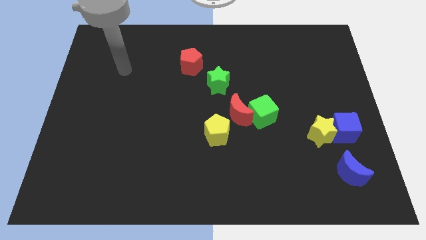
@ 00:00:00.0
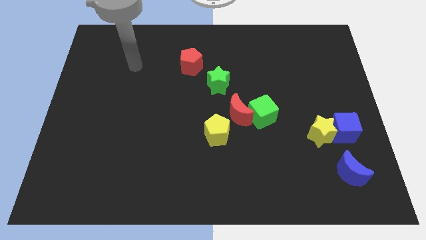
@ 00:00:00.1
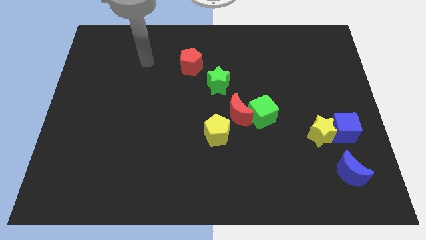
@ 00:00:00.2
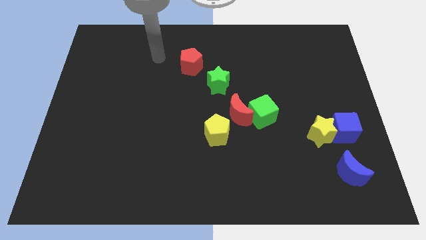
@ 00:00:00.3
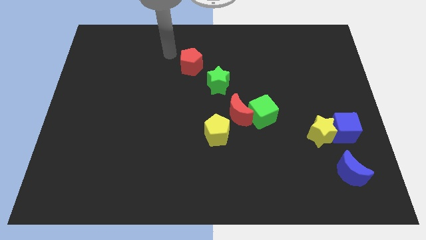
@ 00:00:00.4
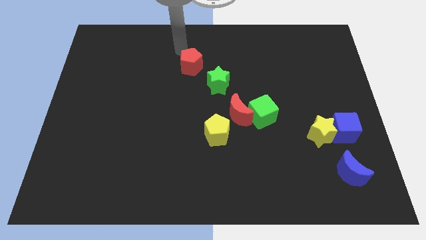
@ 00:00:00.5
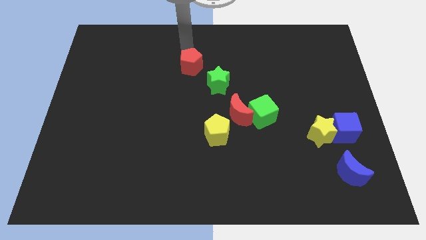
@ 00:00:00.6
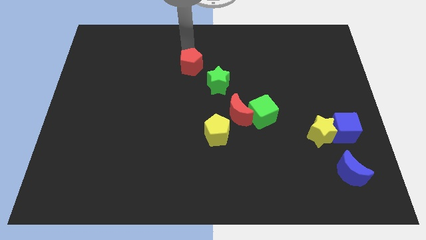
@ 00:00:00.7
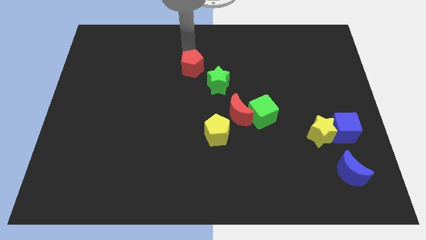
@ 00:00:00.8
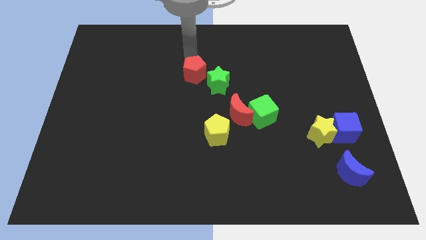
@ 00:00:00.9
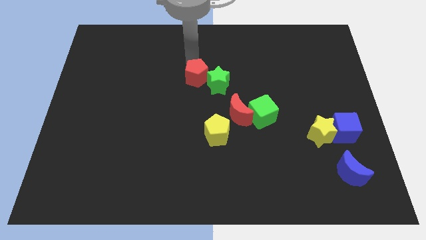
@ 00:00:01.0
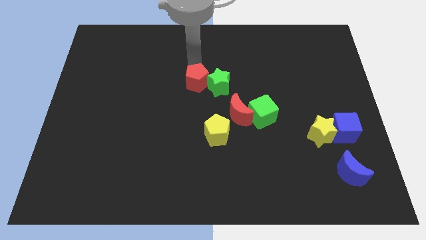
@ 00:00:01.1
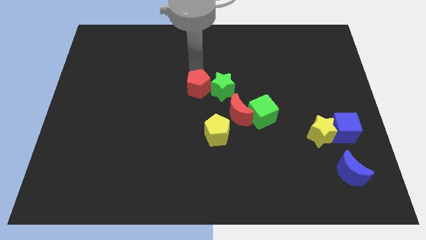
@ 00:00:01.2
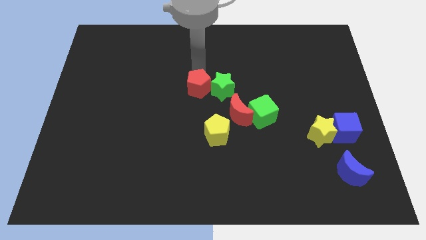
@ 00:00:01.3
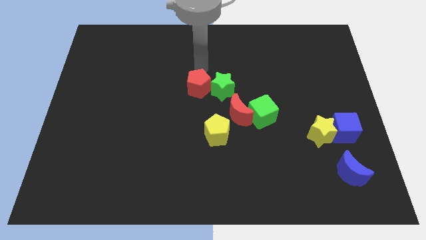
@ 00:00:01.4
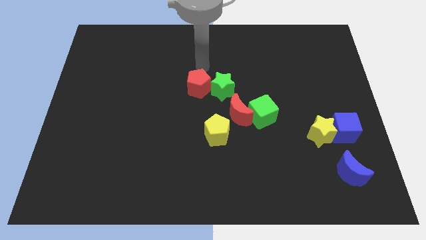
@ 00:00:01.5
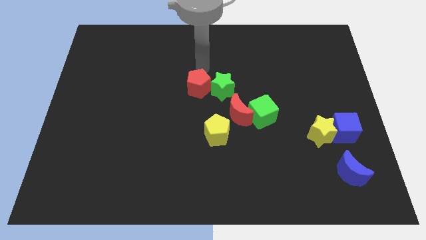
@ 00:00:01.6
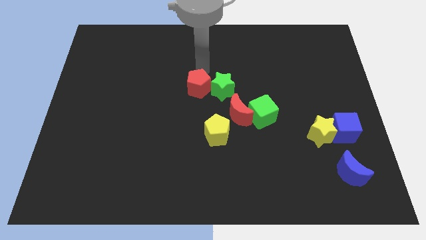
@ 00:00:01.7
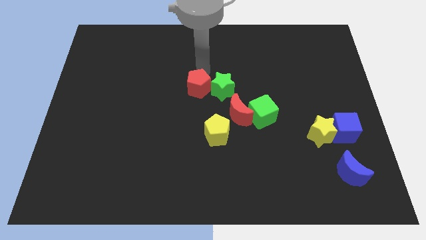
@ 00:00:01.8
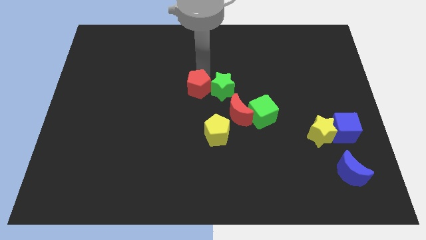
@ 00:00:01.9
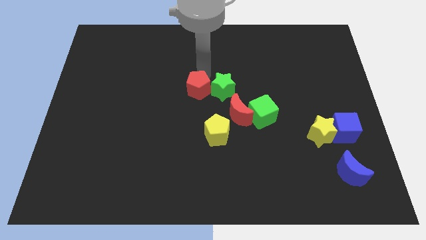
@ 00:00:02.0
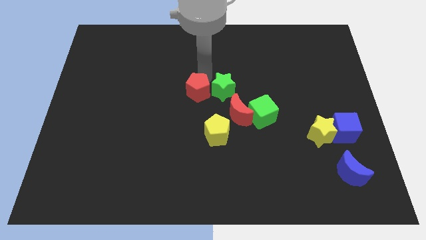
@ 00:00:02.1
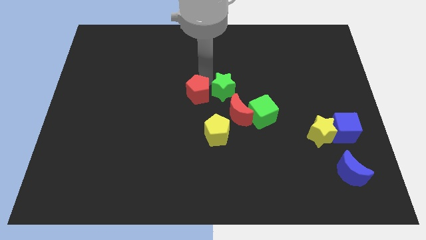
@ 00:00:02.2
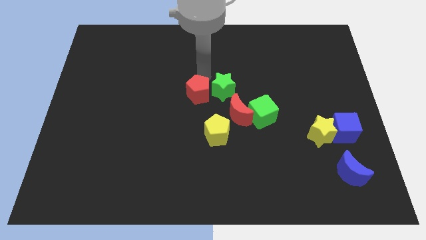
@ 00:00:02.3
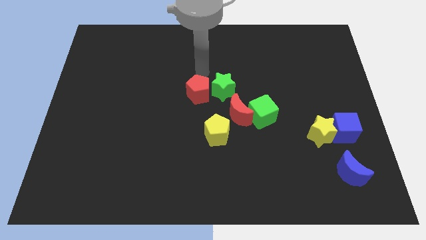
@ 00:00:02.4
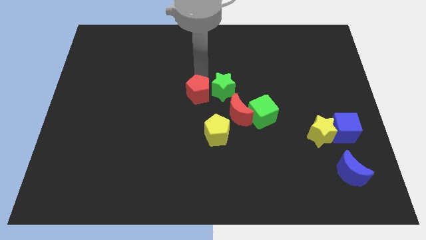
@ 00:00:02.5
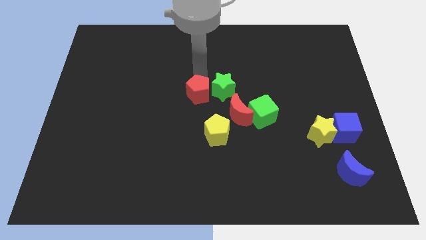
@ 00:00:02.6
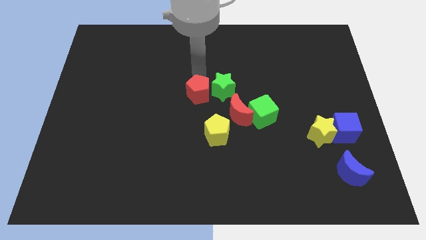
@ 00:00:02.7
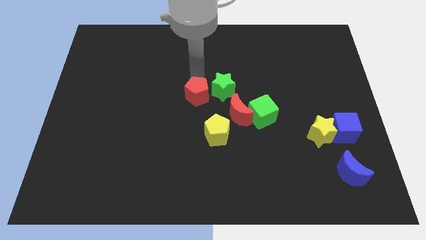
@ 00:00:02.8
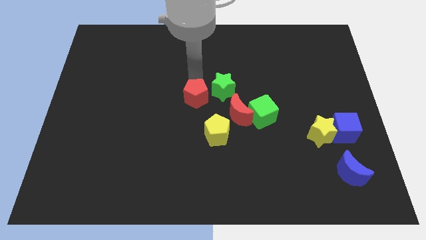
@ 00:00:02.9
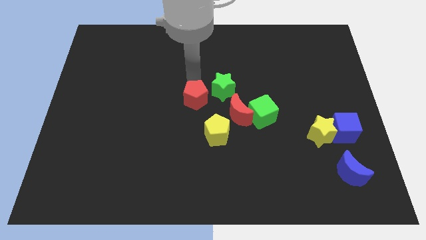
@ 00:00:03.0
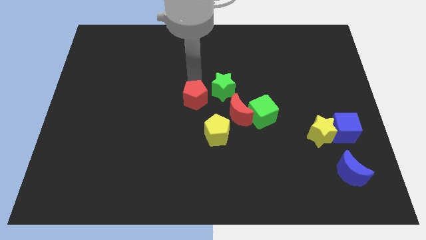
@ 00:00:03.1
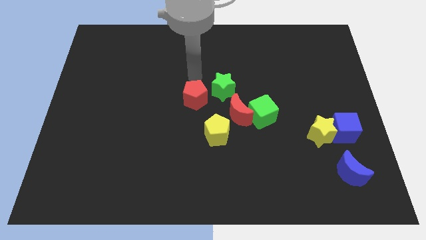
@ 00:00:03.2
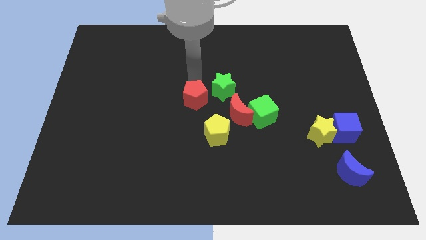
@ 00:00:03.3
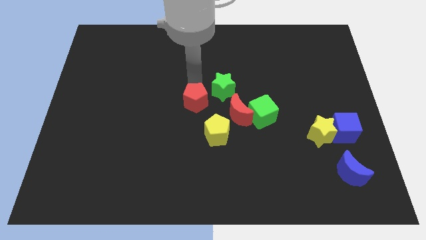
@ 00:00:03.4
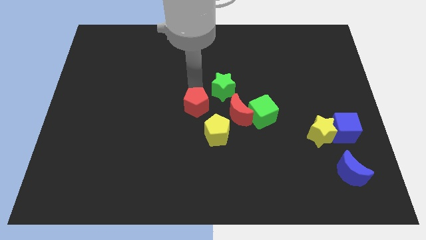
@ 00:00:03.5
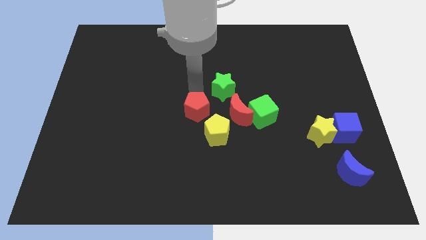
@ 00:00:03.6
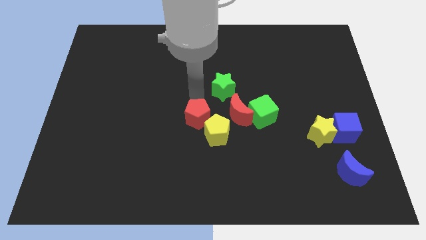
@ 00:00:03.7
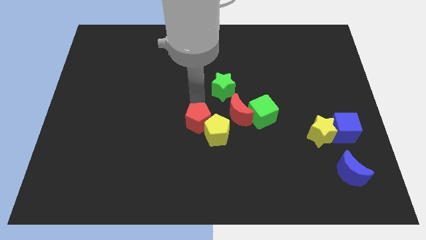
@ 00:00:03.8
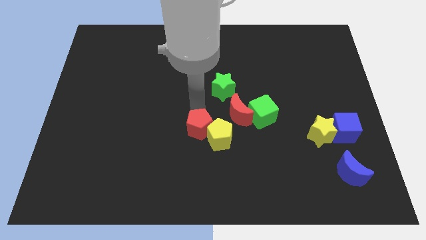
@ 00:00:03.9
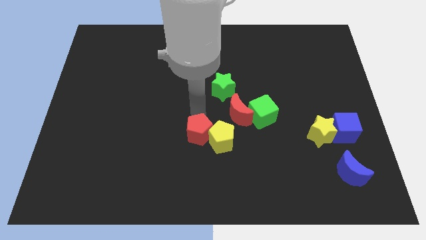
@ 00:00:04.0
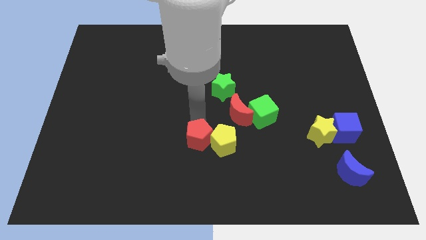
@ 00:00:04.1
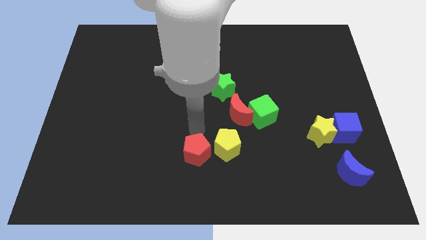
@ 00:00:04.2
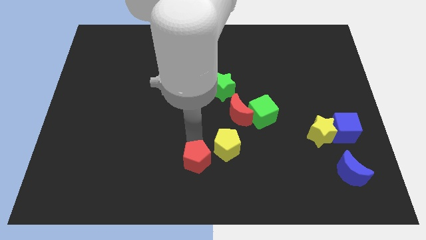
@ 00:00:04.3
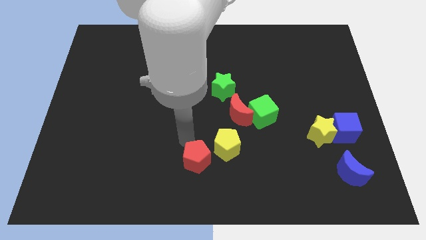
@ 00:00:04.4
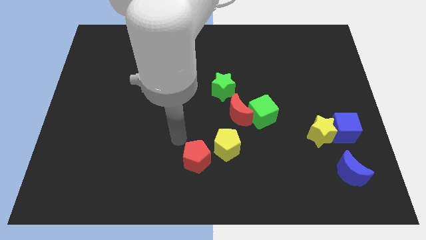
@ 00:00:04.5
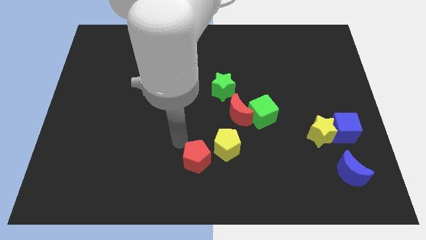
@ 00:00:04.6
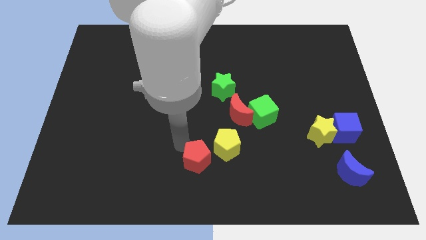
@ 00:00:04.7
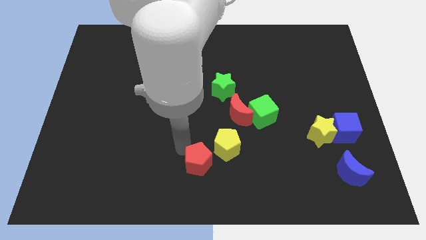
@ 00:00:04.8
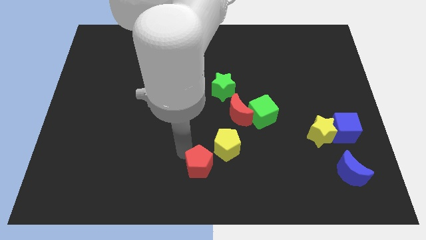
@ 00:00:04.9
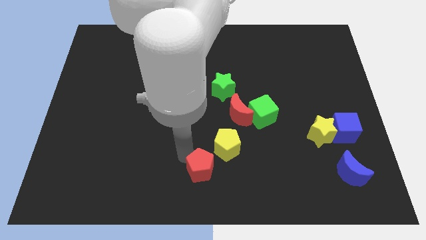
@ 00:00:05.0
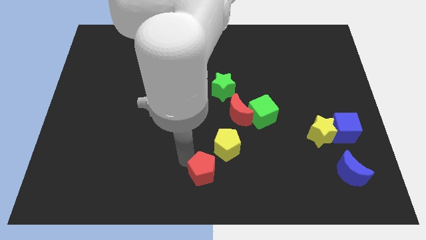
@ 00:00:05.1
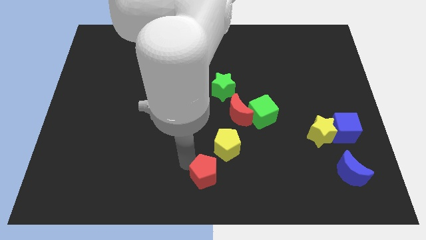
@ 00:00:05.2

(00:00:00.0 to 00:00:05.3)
put the red pentagon to the bottom side of the yellow pentagon

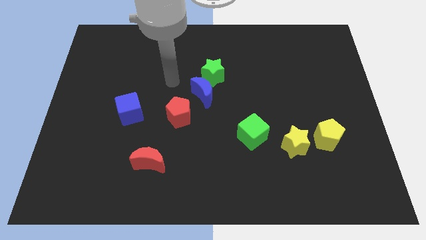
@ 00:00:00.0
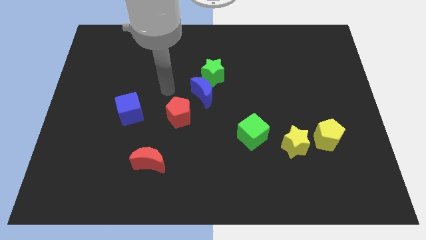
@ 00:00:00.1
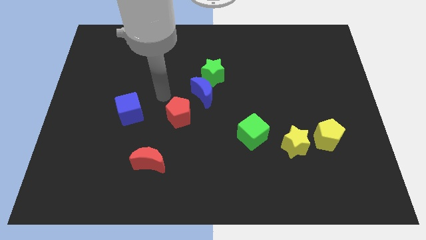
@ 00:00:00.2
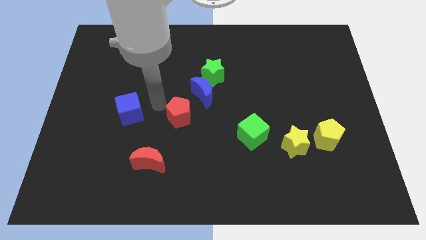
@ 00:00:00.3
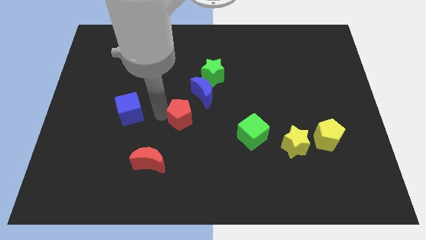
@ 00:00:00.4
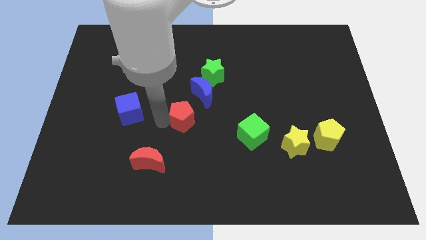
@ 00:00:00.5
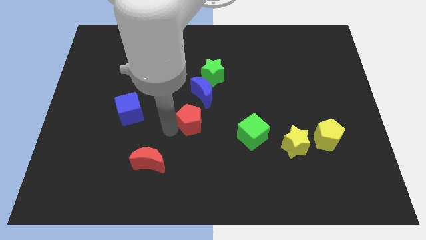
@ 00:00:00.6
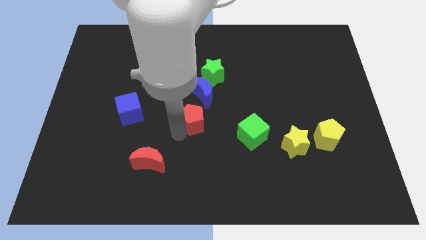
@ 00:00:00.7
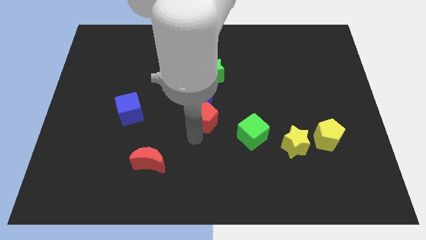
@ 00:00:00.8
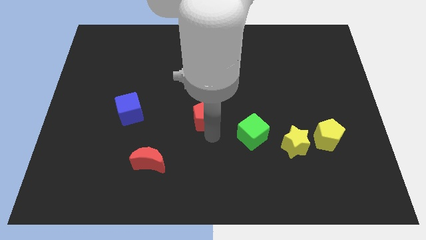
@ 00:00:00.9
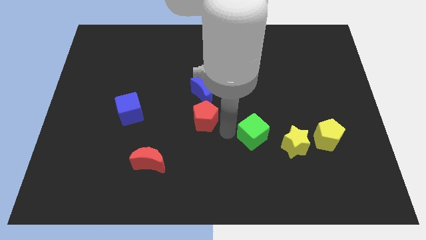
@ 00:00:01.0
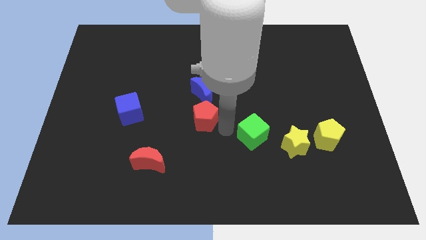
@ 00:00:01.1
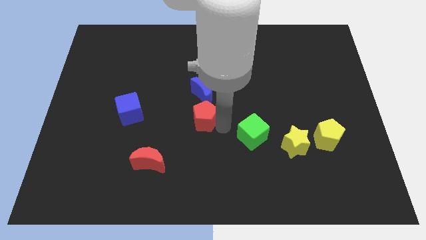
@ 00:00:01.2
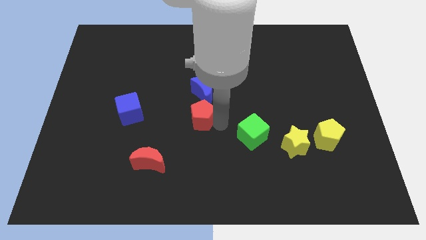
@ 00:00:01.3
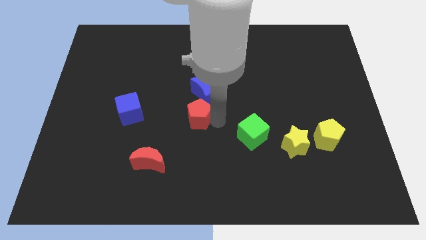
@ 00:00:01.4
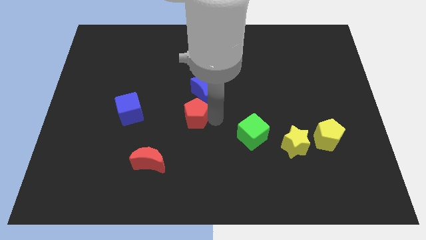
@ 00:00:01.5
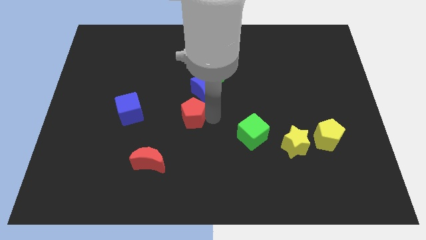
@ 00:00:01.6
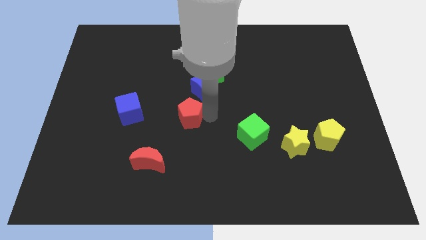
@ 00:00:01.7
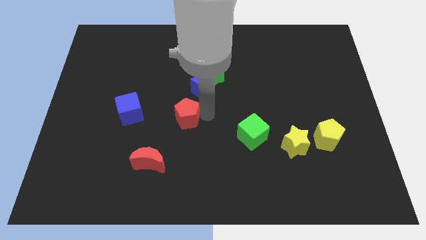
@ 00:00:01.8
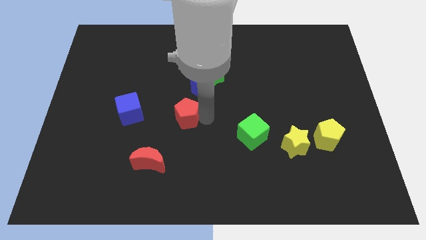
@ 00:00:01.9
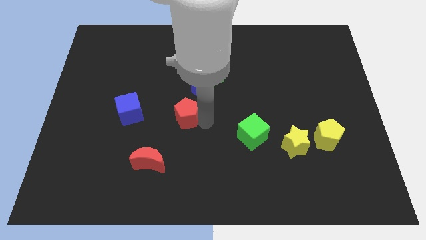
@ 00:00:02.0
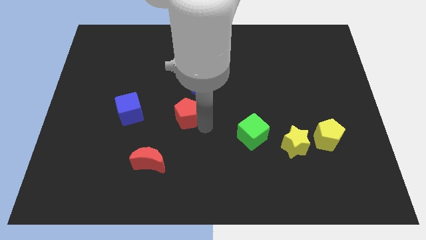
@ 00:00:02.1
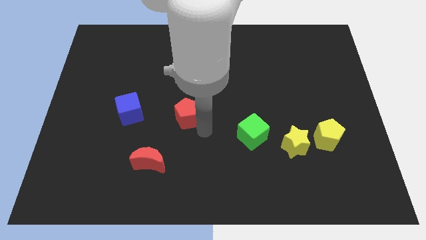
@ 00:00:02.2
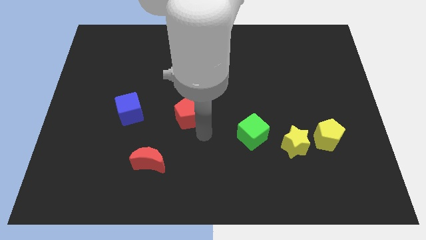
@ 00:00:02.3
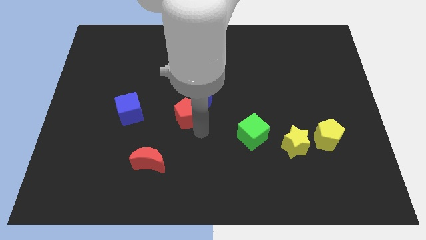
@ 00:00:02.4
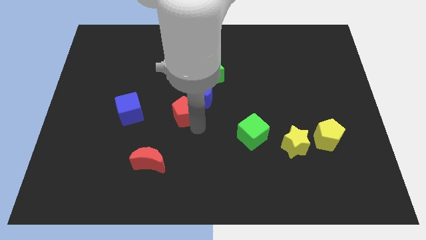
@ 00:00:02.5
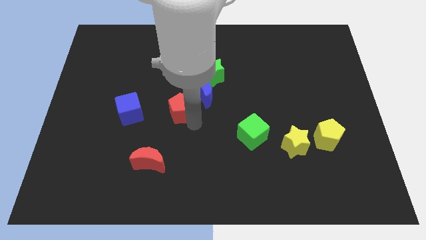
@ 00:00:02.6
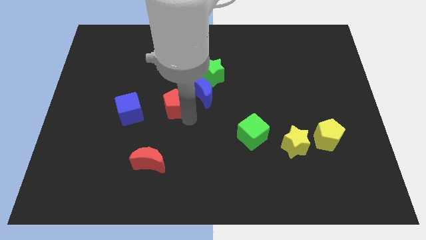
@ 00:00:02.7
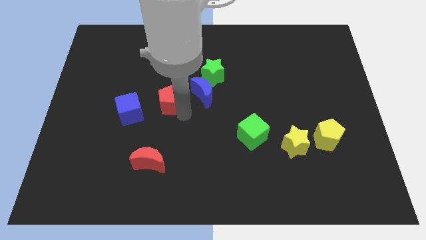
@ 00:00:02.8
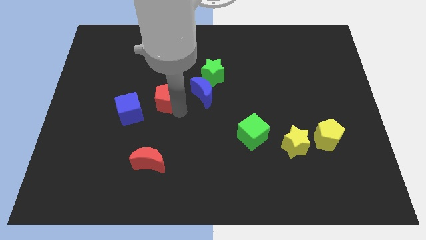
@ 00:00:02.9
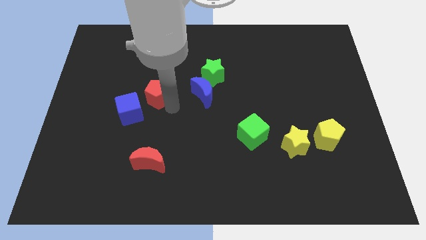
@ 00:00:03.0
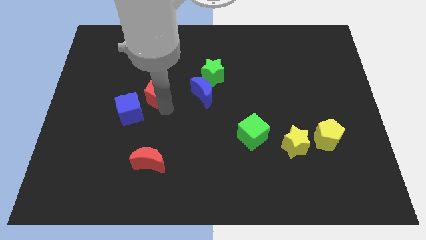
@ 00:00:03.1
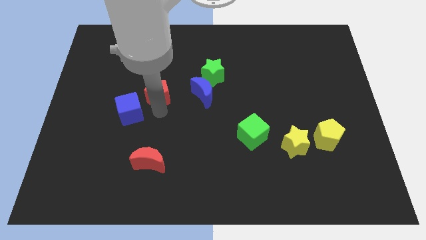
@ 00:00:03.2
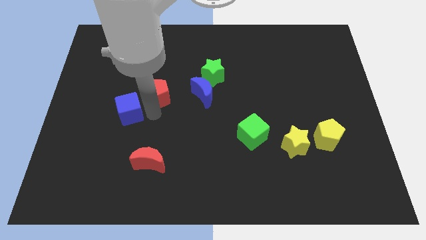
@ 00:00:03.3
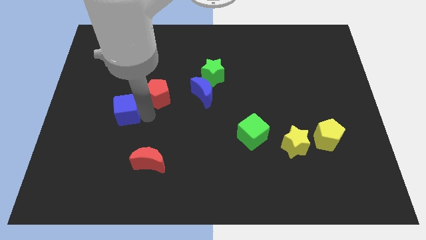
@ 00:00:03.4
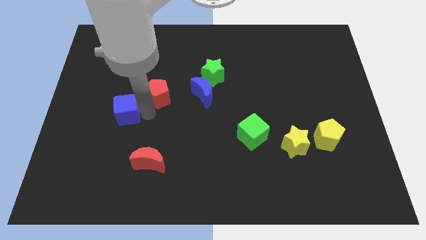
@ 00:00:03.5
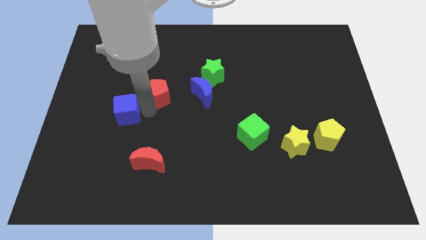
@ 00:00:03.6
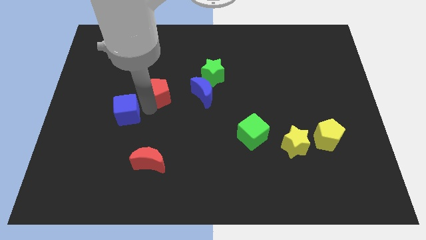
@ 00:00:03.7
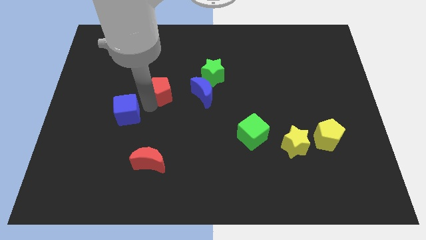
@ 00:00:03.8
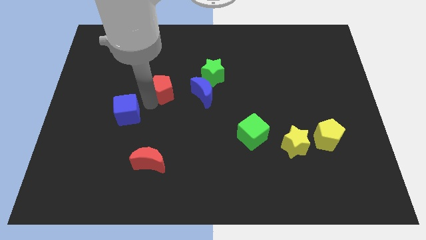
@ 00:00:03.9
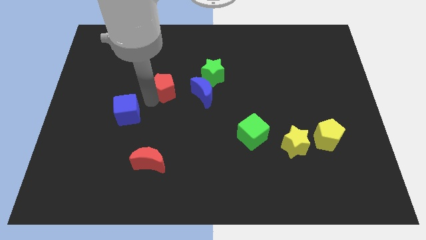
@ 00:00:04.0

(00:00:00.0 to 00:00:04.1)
move the red pentagon to the left of the green star
